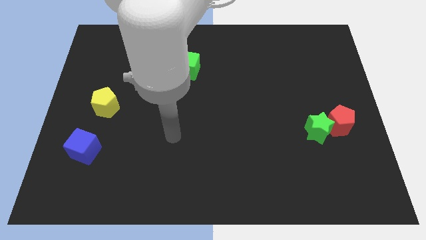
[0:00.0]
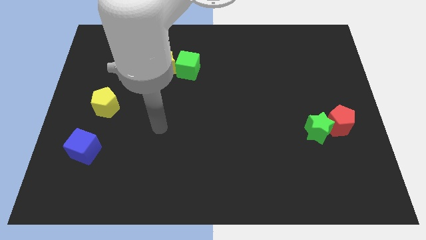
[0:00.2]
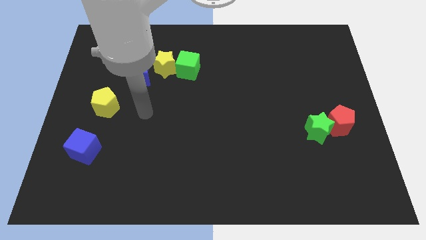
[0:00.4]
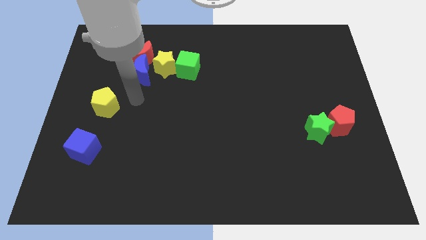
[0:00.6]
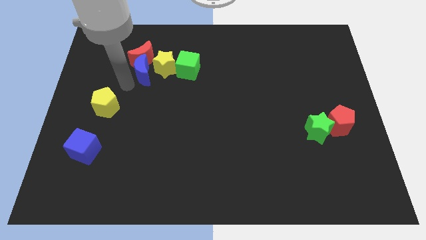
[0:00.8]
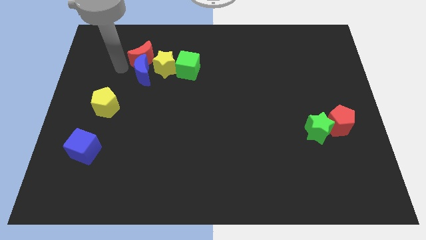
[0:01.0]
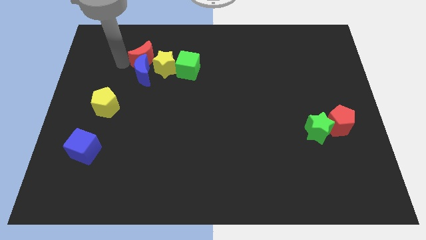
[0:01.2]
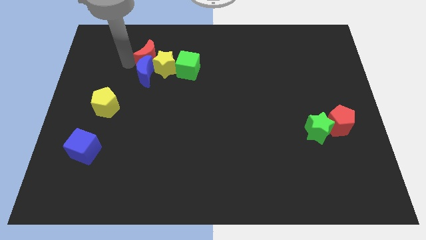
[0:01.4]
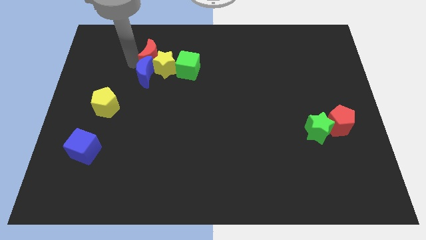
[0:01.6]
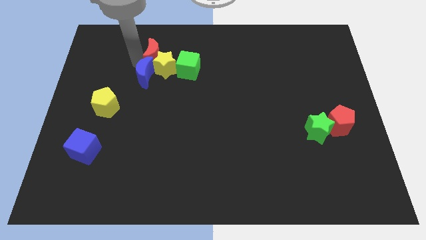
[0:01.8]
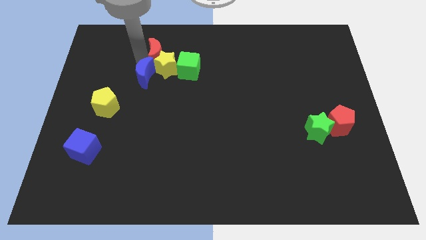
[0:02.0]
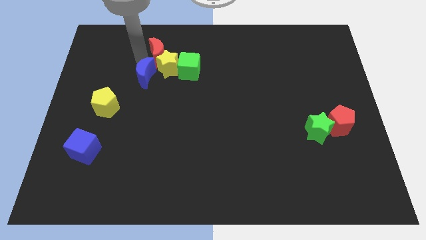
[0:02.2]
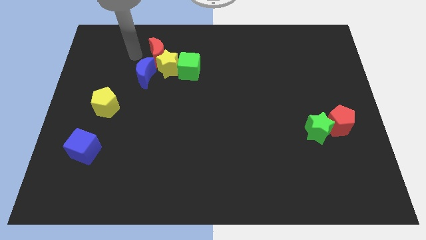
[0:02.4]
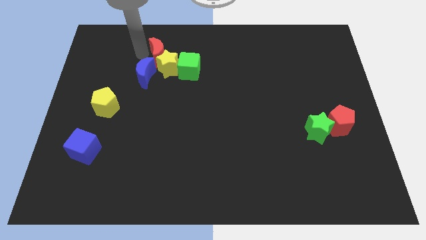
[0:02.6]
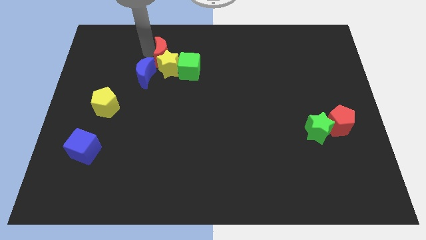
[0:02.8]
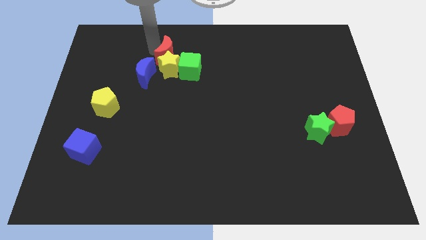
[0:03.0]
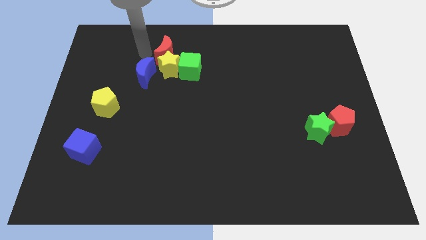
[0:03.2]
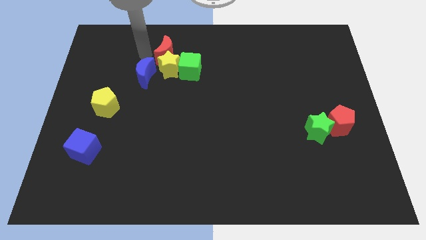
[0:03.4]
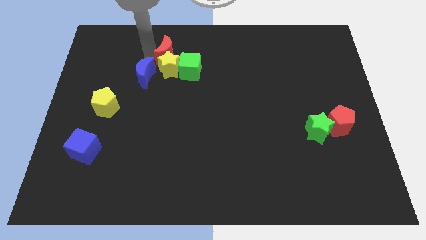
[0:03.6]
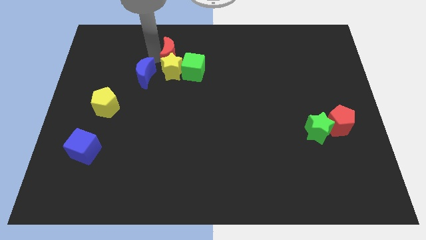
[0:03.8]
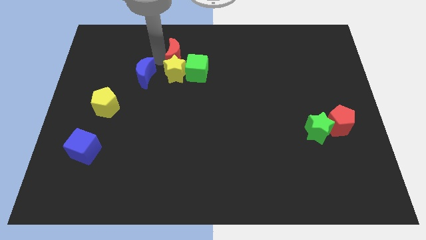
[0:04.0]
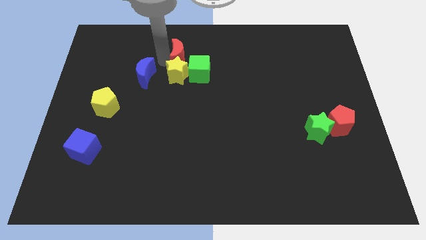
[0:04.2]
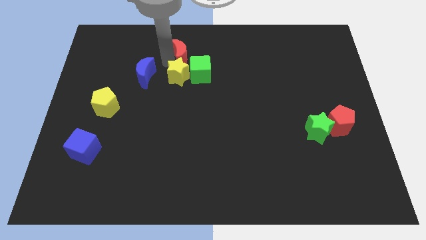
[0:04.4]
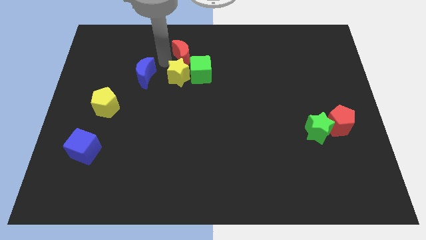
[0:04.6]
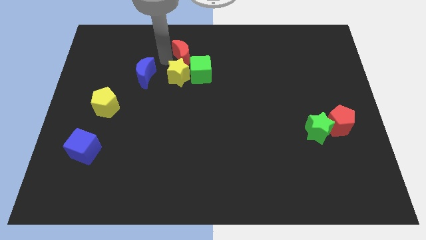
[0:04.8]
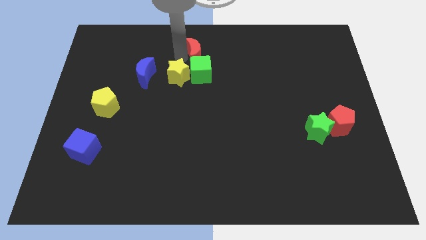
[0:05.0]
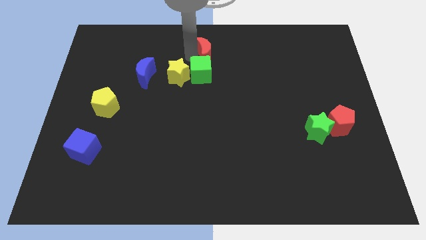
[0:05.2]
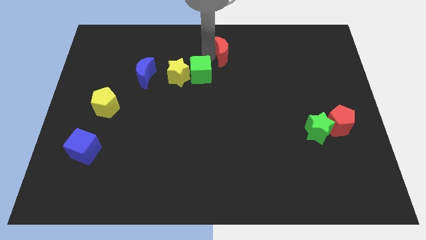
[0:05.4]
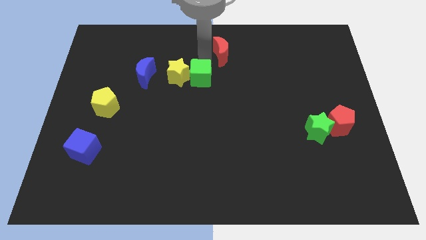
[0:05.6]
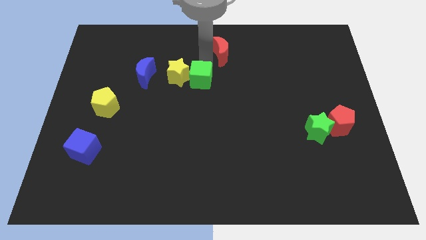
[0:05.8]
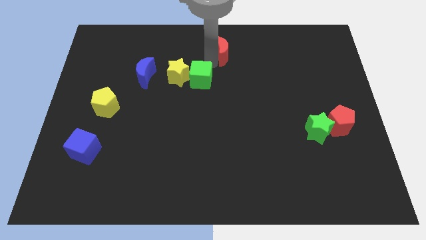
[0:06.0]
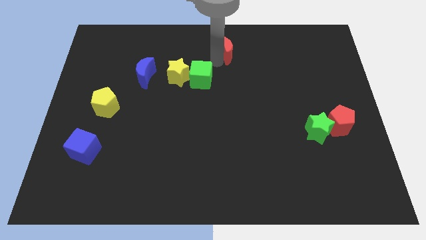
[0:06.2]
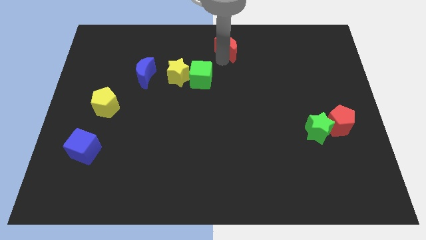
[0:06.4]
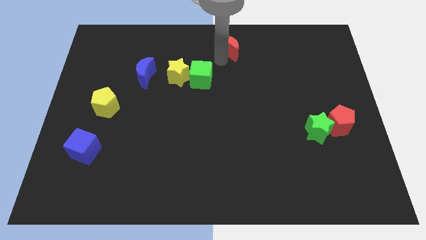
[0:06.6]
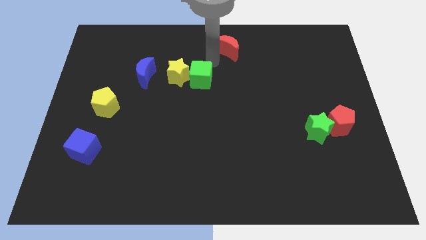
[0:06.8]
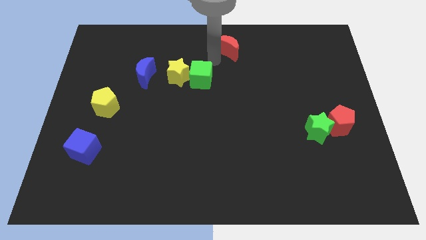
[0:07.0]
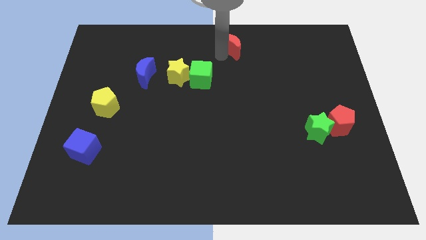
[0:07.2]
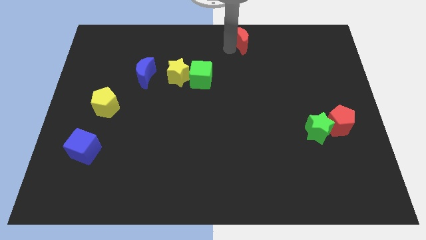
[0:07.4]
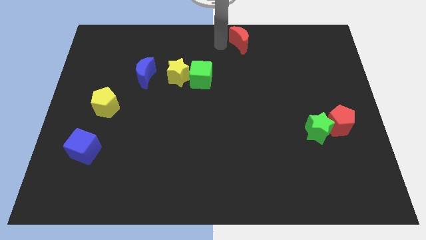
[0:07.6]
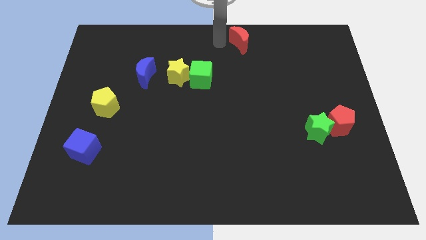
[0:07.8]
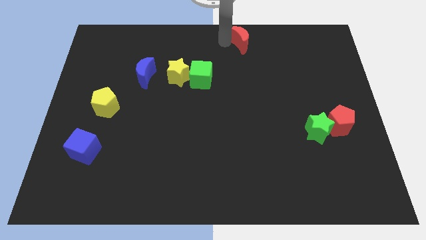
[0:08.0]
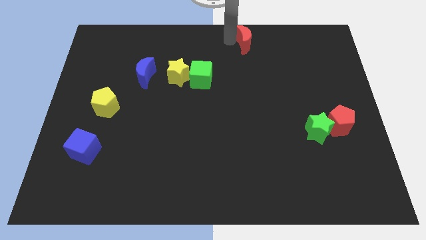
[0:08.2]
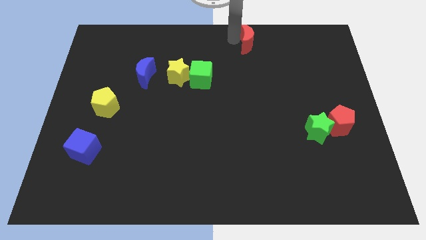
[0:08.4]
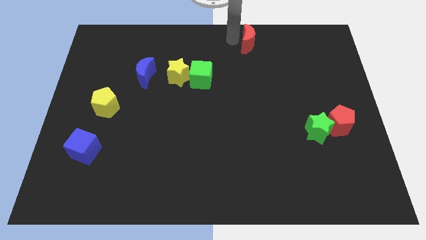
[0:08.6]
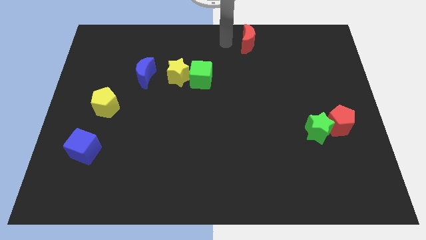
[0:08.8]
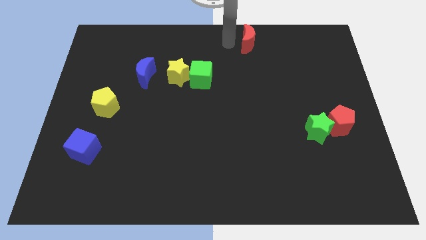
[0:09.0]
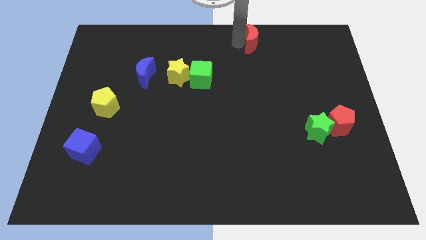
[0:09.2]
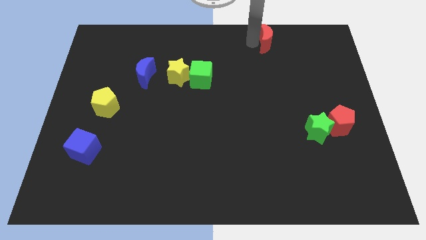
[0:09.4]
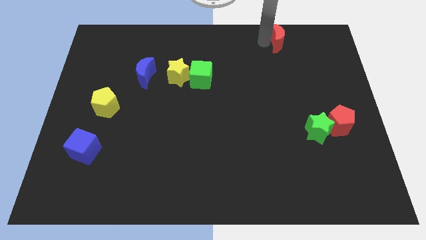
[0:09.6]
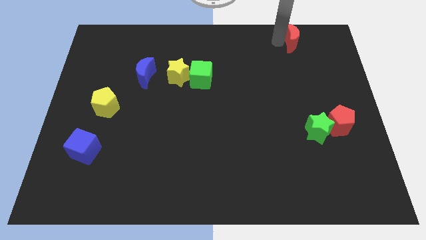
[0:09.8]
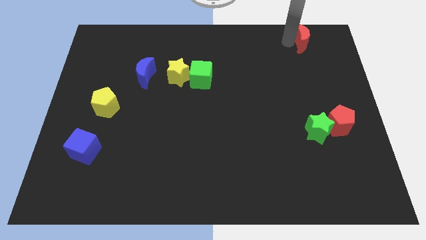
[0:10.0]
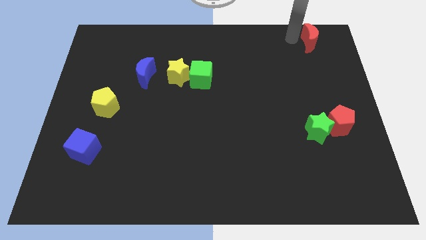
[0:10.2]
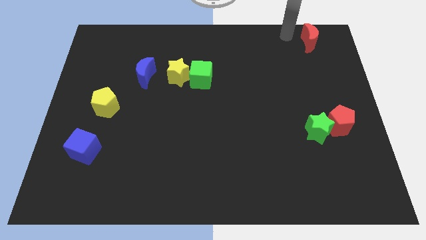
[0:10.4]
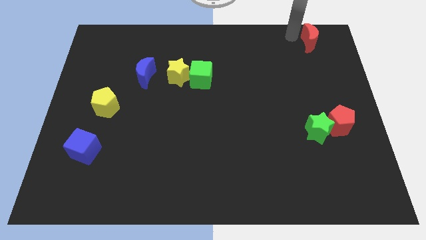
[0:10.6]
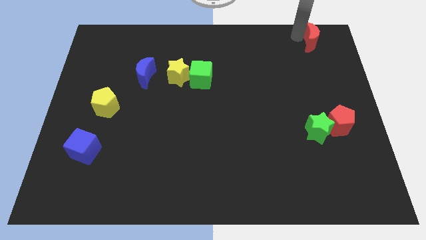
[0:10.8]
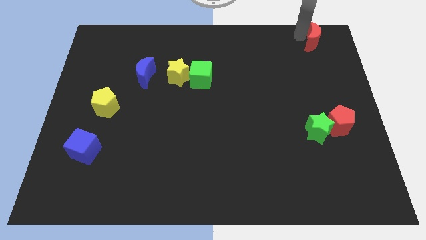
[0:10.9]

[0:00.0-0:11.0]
move the red moon to the upper right corner
